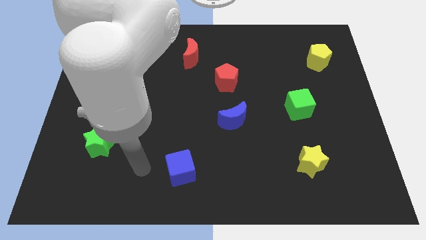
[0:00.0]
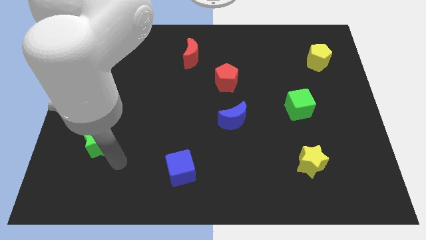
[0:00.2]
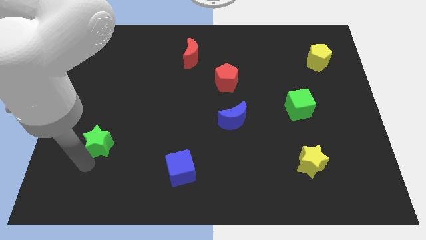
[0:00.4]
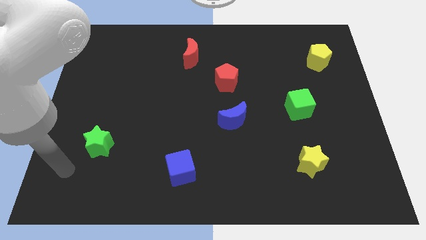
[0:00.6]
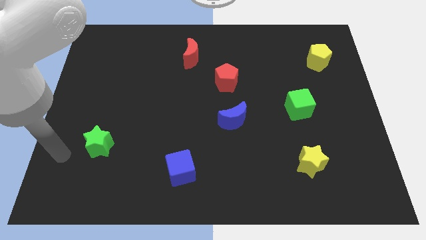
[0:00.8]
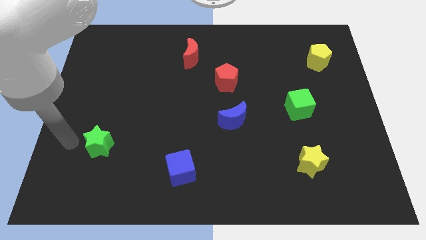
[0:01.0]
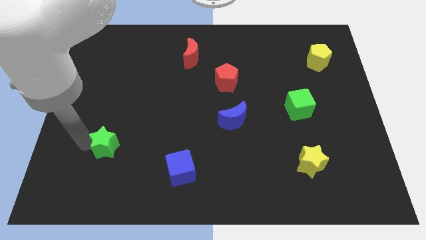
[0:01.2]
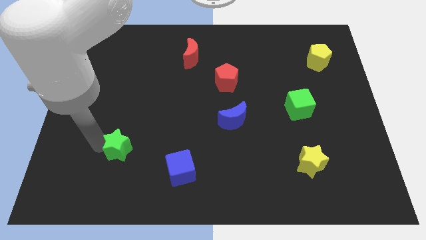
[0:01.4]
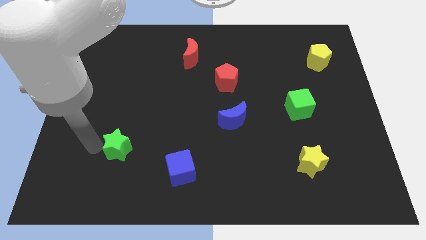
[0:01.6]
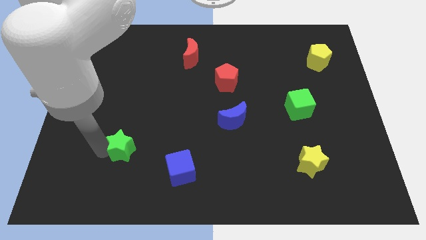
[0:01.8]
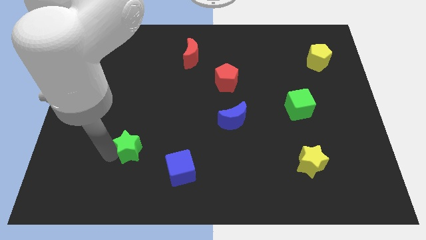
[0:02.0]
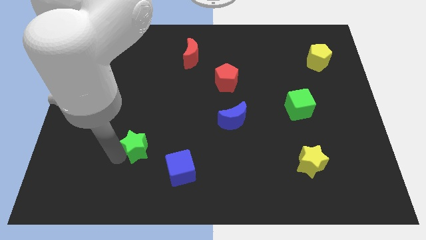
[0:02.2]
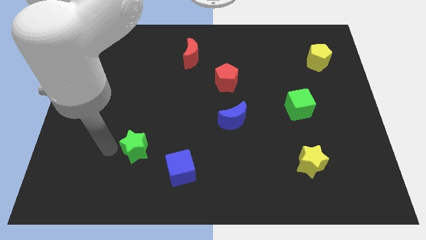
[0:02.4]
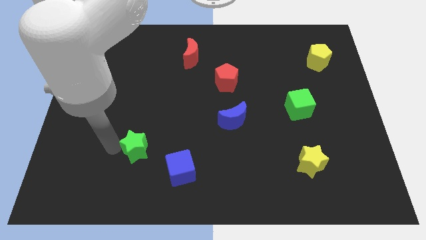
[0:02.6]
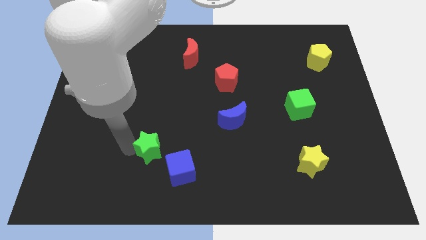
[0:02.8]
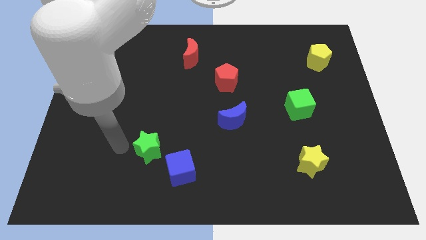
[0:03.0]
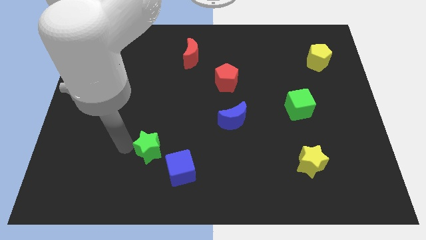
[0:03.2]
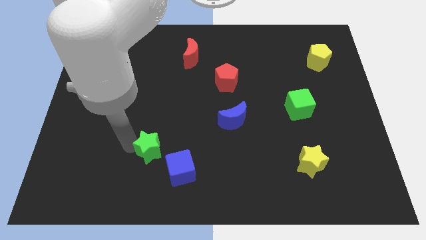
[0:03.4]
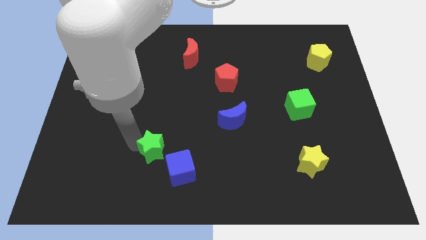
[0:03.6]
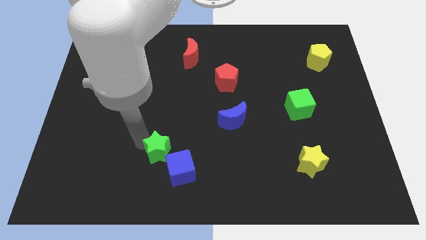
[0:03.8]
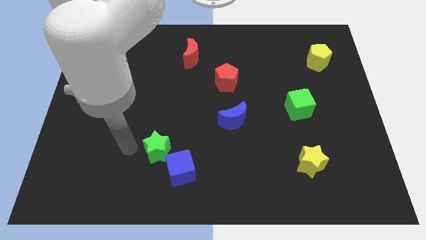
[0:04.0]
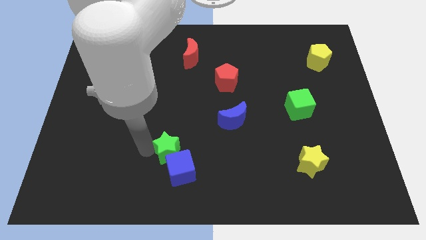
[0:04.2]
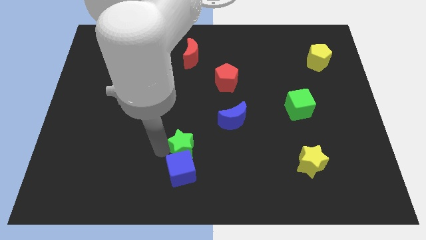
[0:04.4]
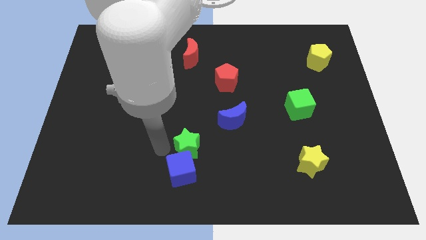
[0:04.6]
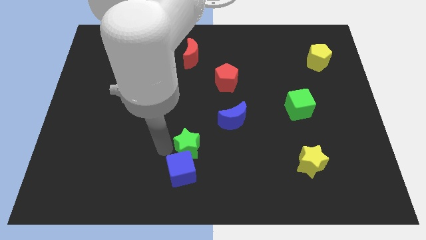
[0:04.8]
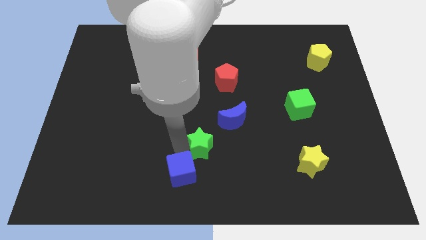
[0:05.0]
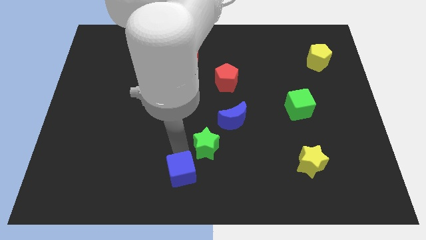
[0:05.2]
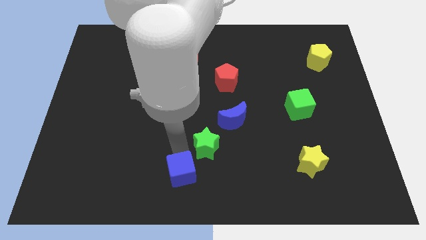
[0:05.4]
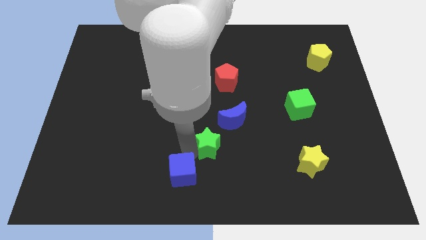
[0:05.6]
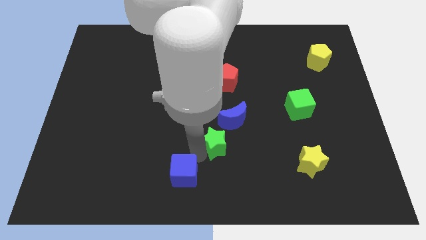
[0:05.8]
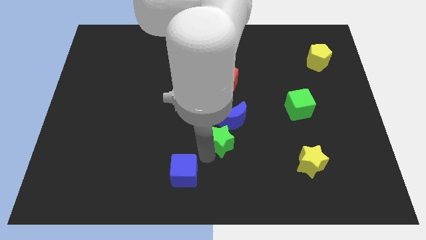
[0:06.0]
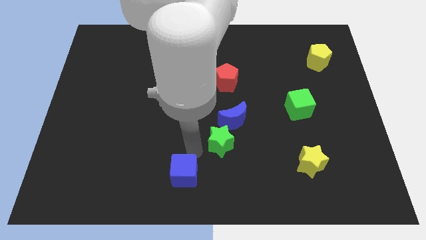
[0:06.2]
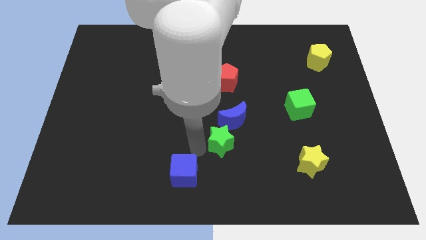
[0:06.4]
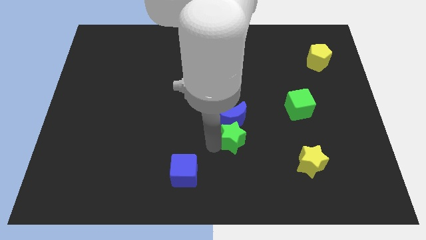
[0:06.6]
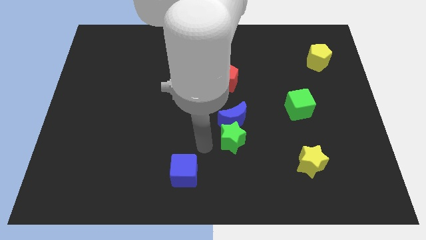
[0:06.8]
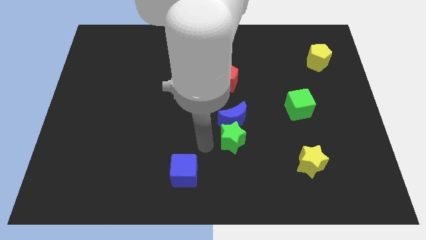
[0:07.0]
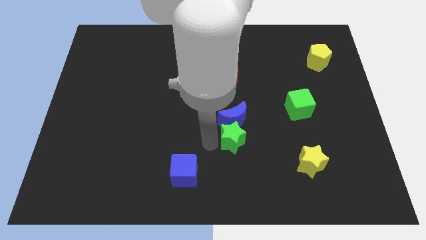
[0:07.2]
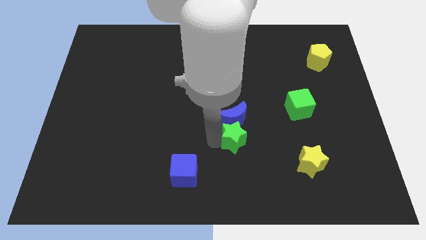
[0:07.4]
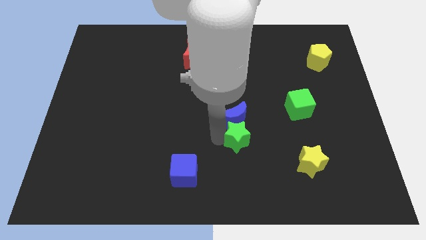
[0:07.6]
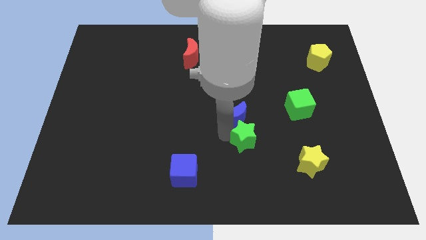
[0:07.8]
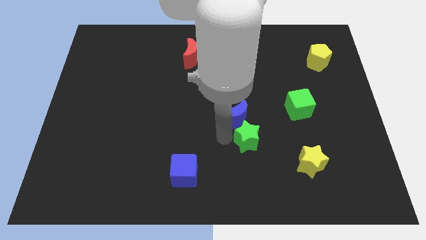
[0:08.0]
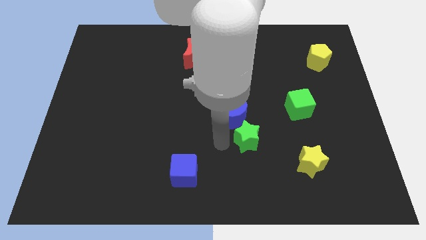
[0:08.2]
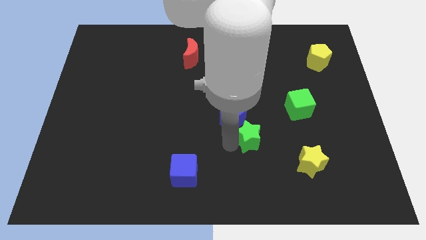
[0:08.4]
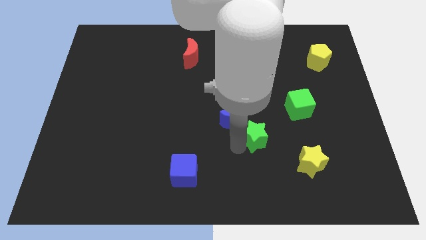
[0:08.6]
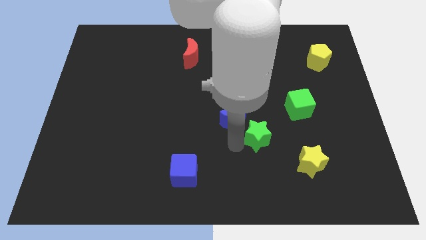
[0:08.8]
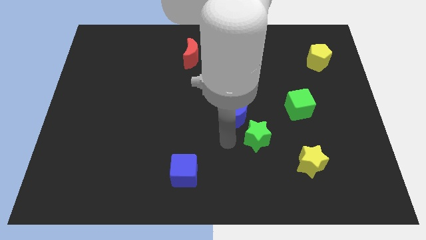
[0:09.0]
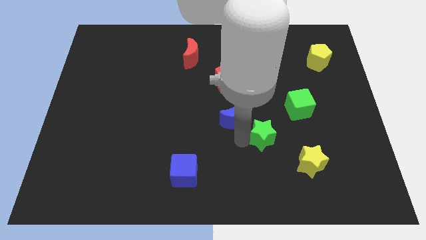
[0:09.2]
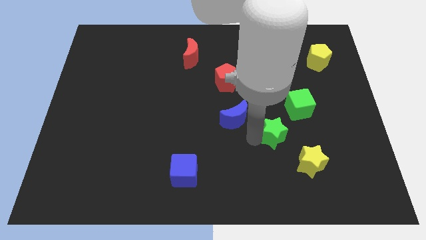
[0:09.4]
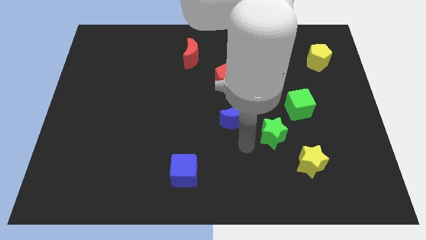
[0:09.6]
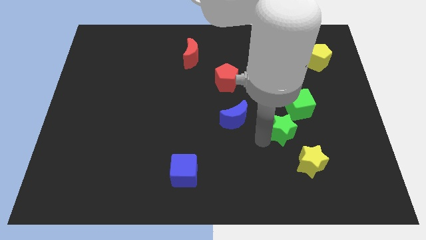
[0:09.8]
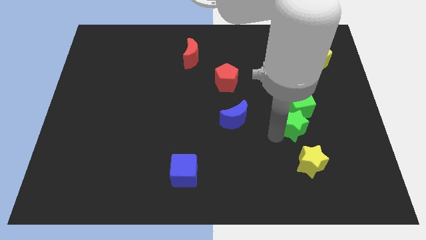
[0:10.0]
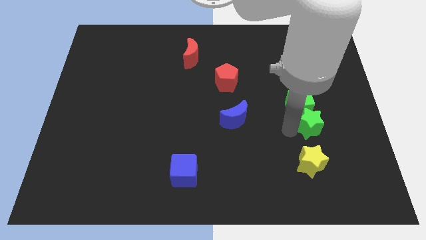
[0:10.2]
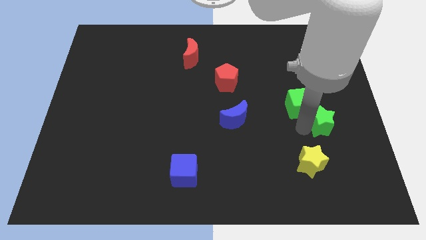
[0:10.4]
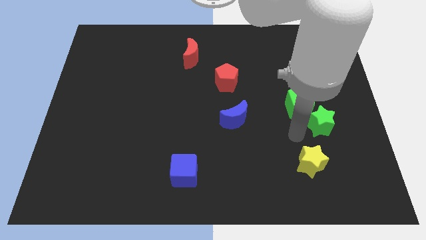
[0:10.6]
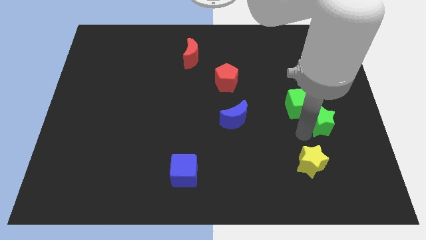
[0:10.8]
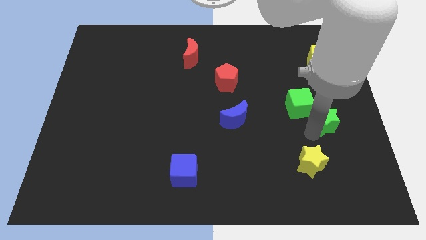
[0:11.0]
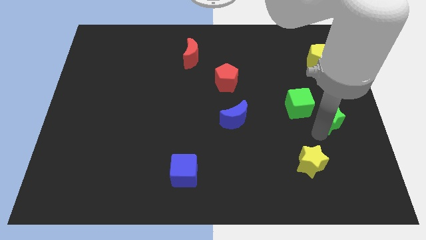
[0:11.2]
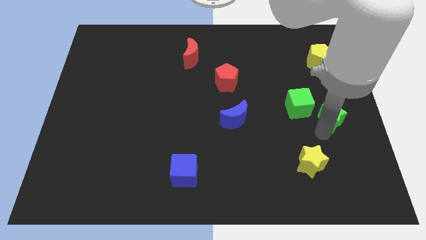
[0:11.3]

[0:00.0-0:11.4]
put the green star to the right side of the board

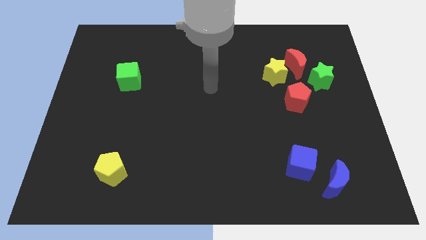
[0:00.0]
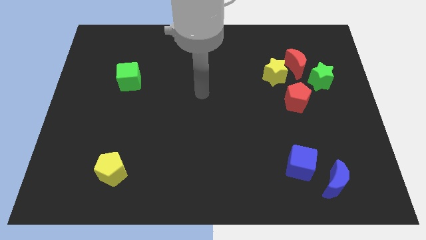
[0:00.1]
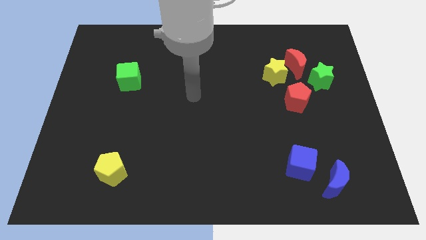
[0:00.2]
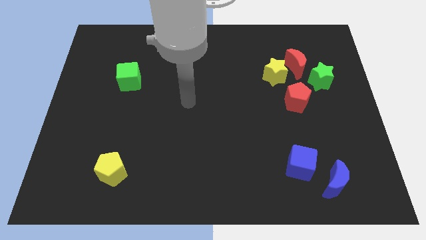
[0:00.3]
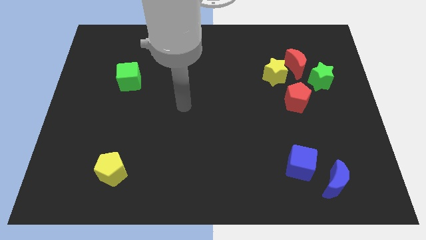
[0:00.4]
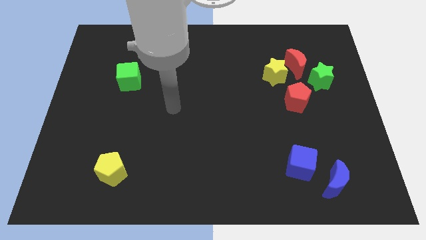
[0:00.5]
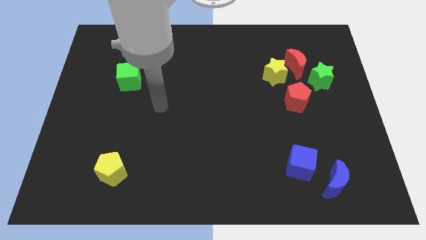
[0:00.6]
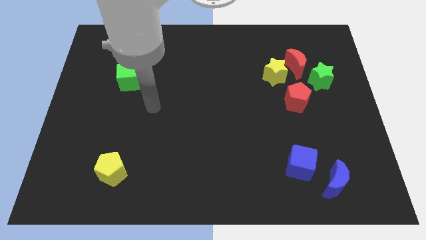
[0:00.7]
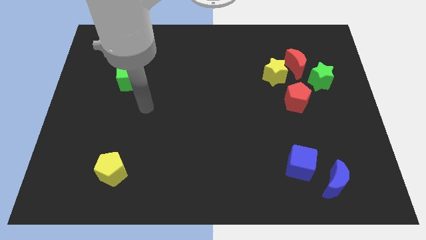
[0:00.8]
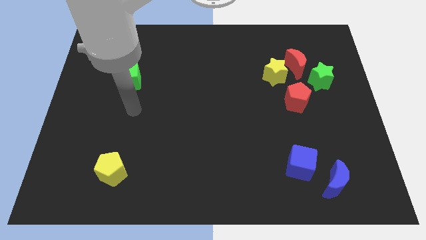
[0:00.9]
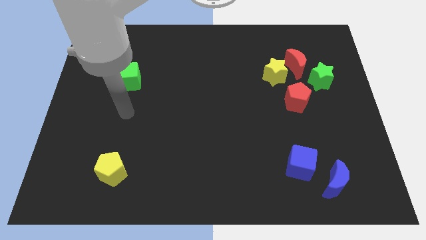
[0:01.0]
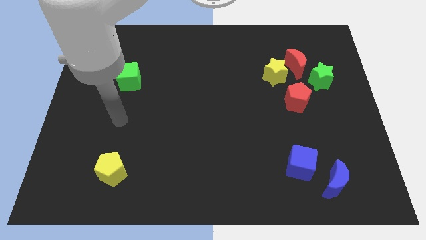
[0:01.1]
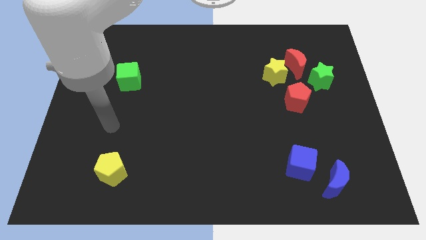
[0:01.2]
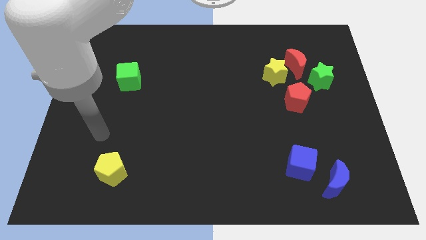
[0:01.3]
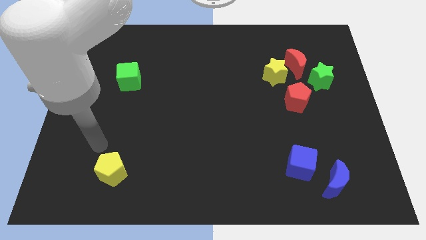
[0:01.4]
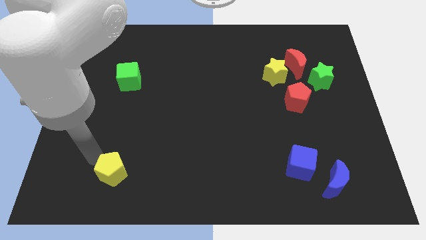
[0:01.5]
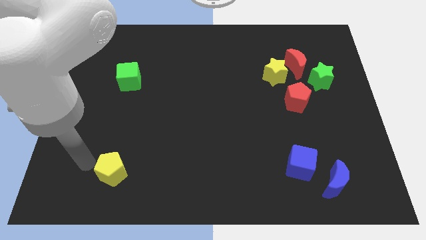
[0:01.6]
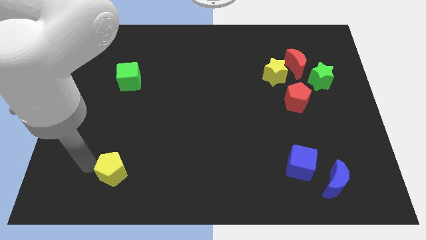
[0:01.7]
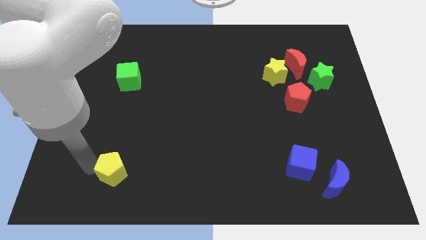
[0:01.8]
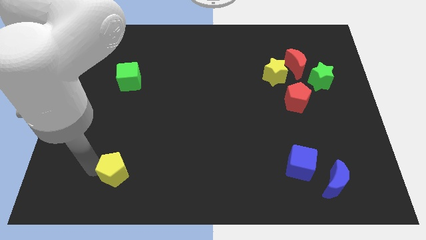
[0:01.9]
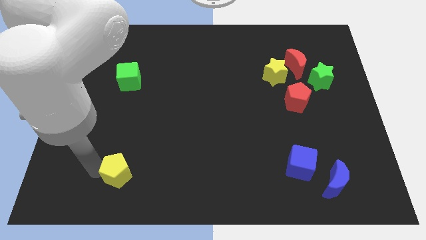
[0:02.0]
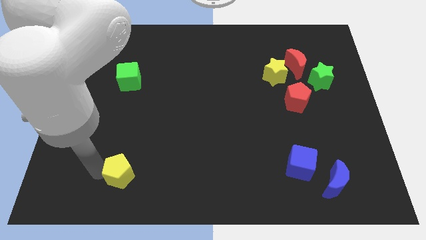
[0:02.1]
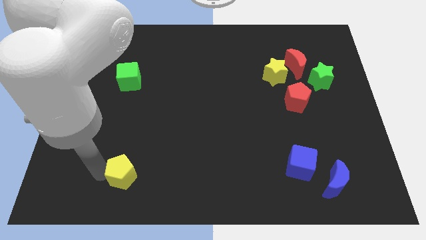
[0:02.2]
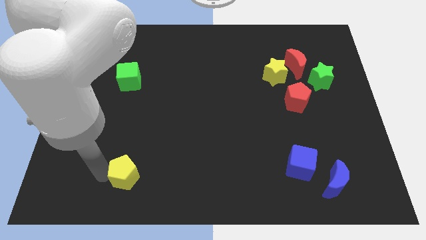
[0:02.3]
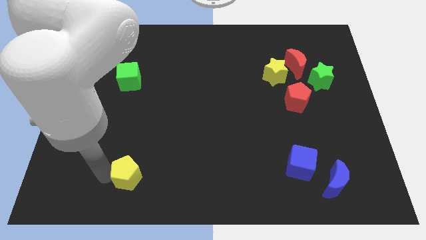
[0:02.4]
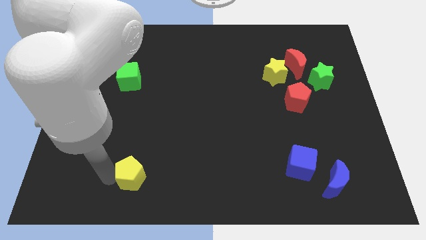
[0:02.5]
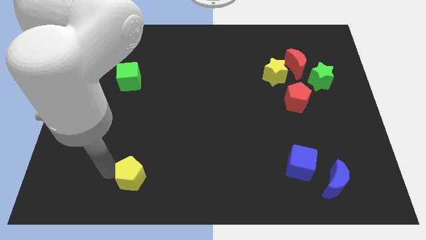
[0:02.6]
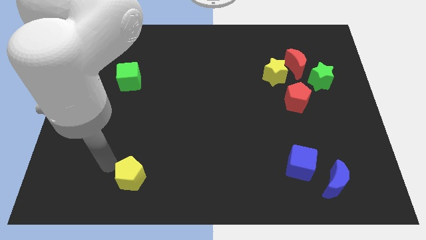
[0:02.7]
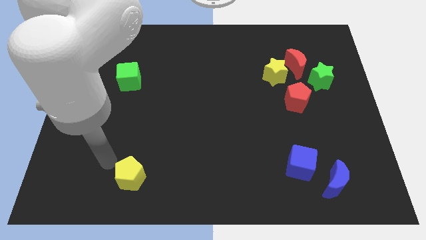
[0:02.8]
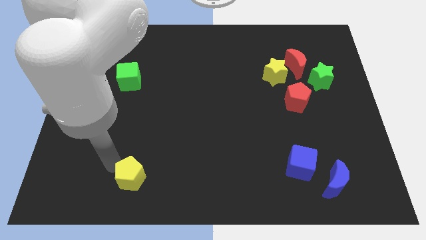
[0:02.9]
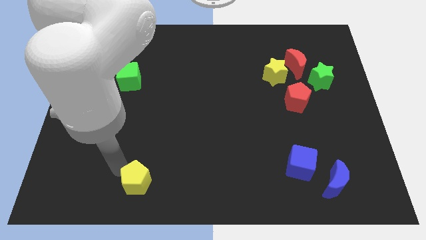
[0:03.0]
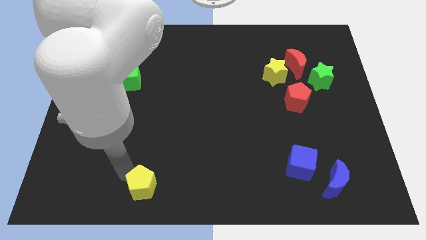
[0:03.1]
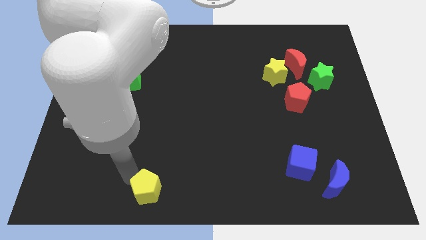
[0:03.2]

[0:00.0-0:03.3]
put the yellow pentagon to the bottom side
